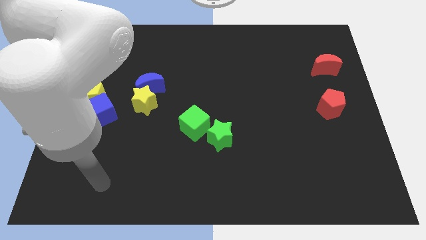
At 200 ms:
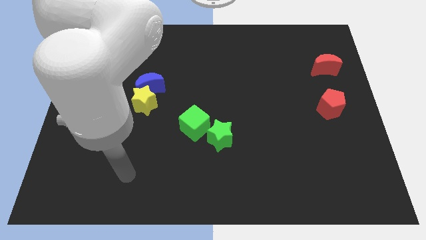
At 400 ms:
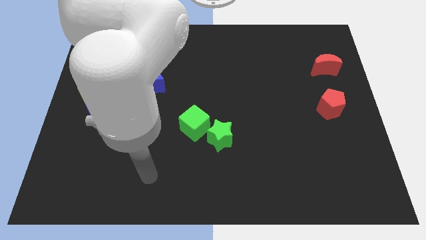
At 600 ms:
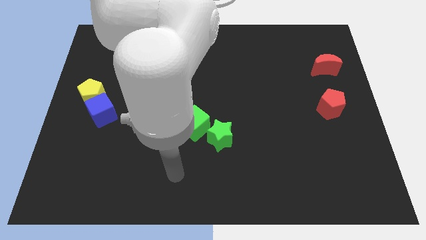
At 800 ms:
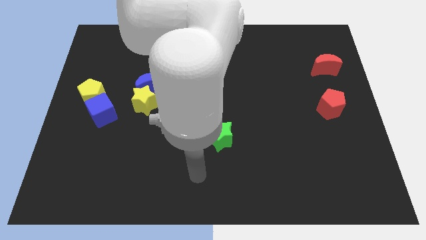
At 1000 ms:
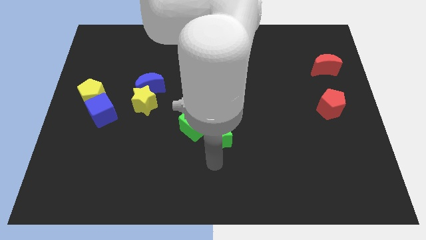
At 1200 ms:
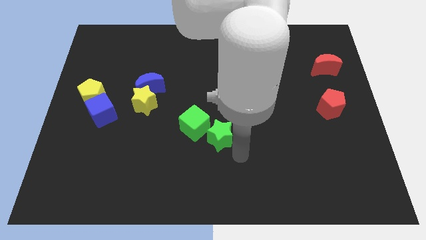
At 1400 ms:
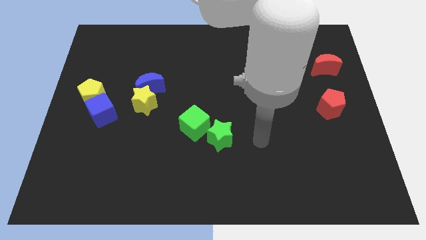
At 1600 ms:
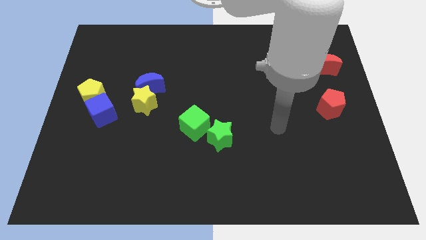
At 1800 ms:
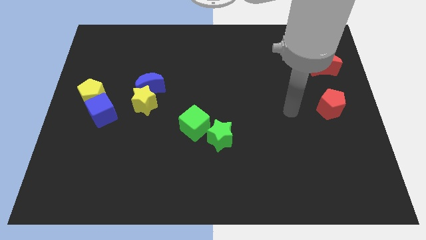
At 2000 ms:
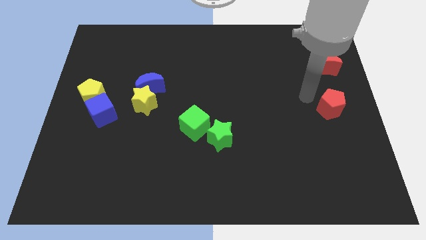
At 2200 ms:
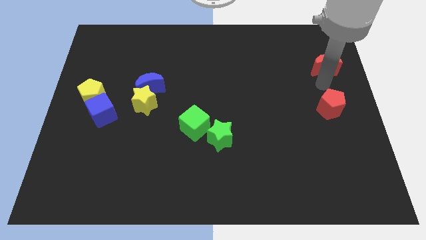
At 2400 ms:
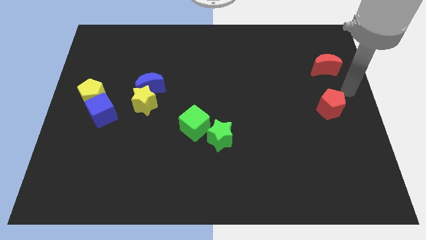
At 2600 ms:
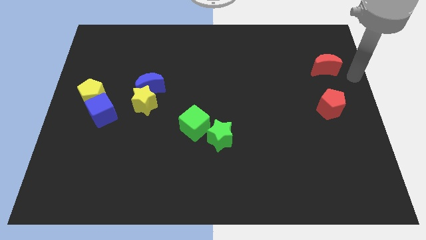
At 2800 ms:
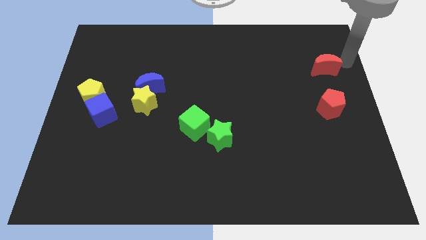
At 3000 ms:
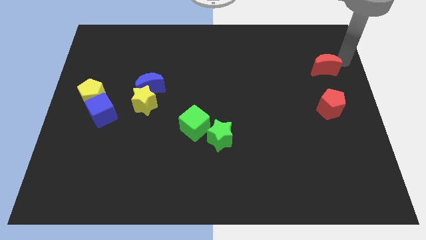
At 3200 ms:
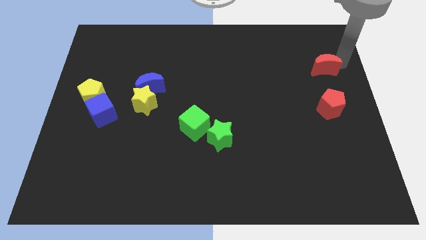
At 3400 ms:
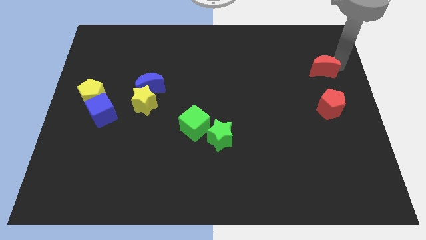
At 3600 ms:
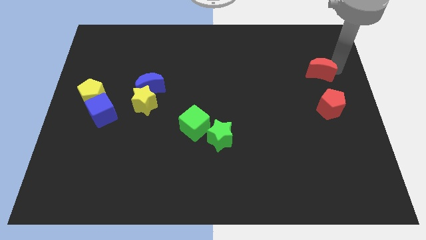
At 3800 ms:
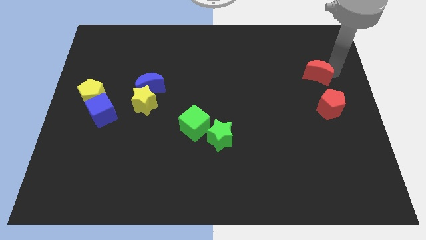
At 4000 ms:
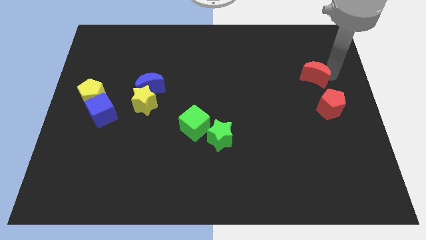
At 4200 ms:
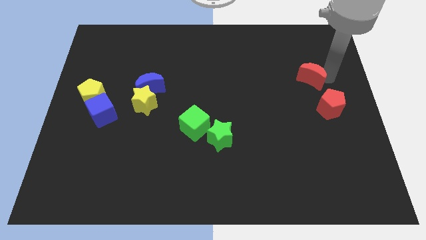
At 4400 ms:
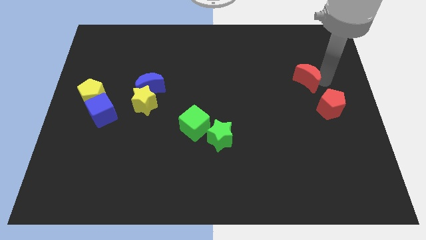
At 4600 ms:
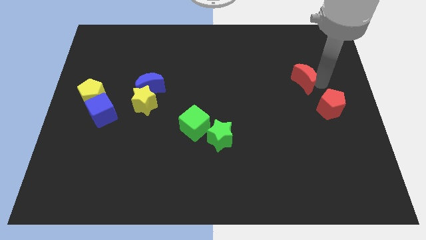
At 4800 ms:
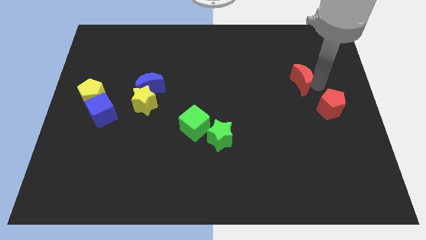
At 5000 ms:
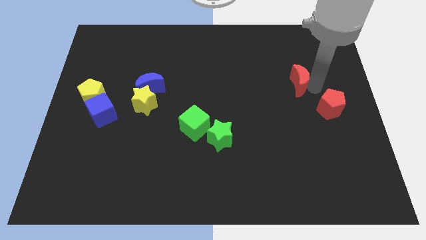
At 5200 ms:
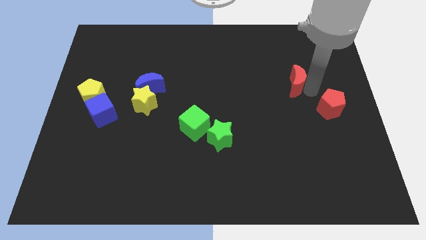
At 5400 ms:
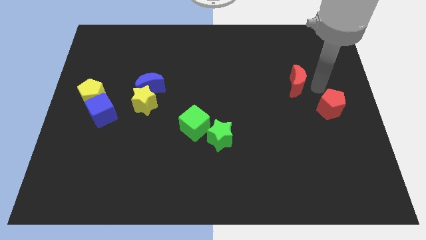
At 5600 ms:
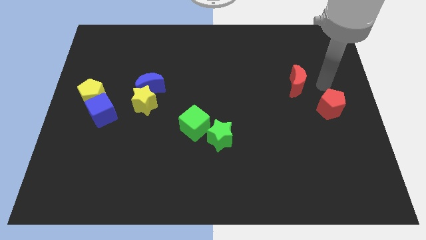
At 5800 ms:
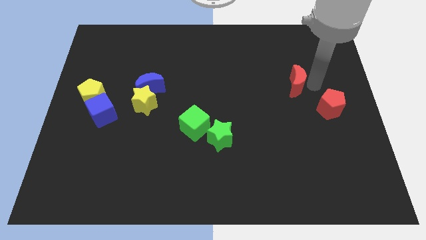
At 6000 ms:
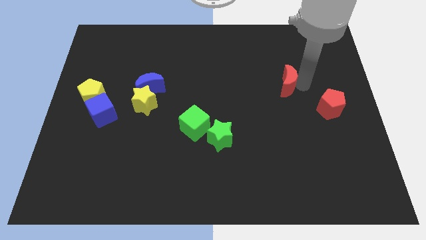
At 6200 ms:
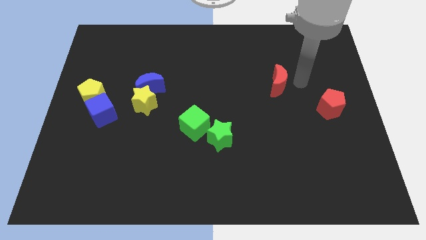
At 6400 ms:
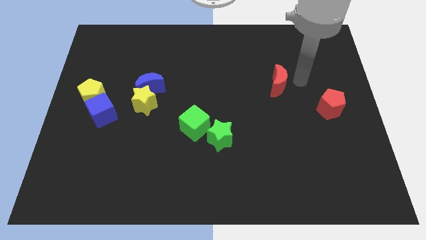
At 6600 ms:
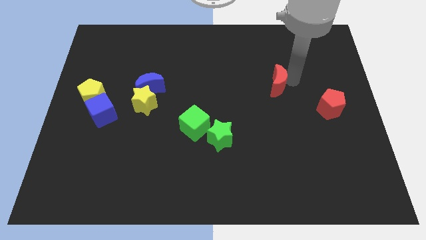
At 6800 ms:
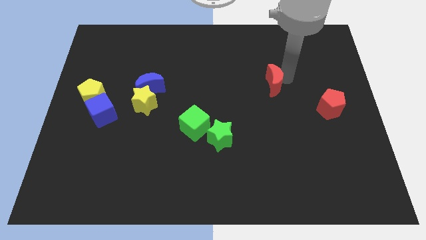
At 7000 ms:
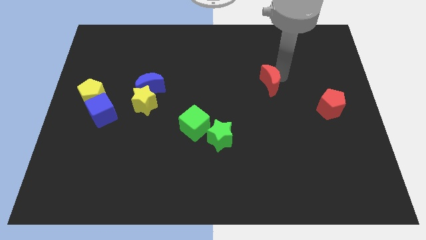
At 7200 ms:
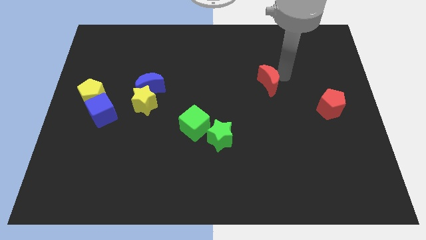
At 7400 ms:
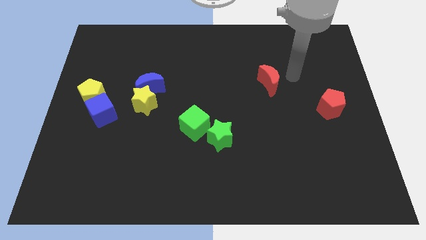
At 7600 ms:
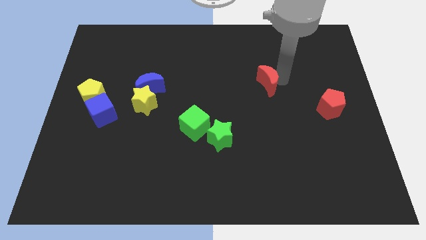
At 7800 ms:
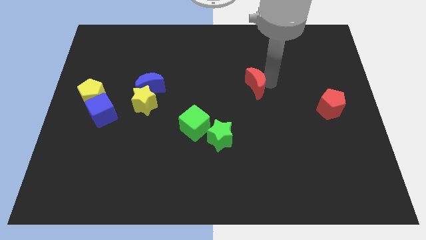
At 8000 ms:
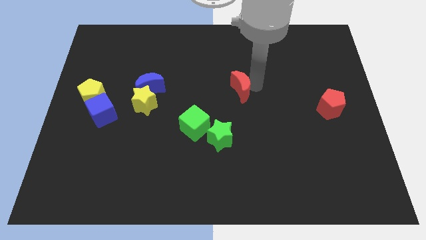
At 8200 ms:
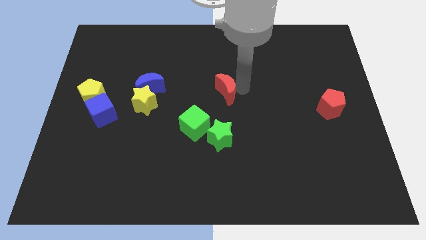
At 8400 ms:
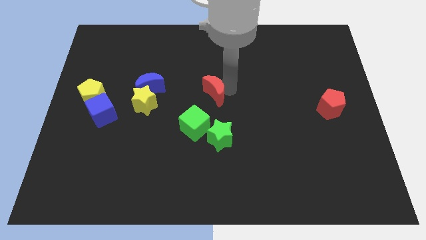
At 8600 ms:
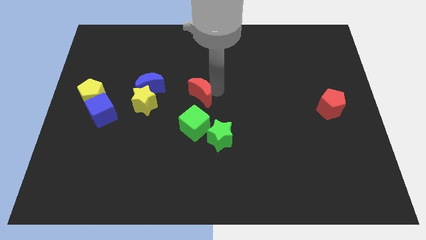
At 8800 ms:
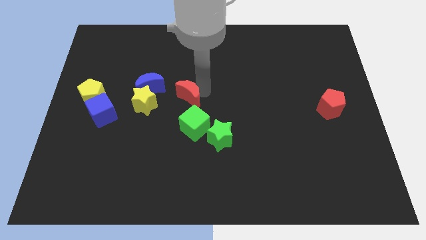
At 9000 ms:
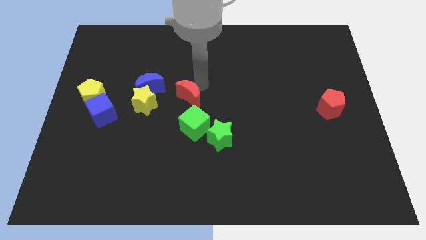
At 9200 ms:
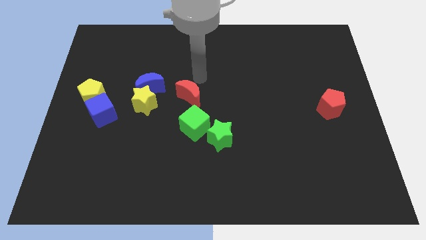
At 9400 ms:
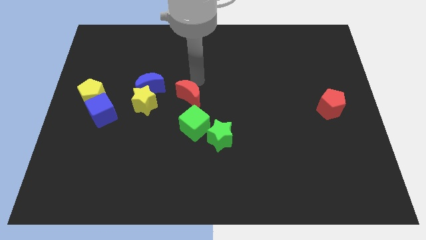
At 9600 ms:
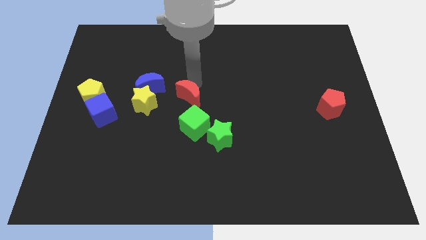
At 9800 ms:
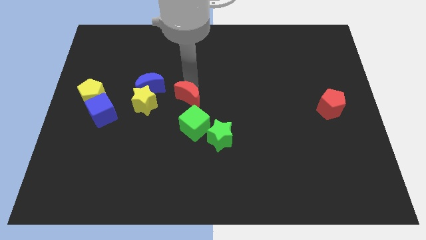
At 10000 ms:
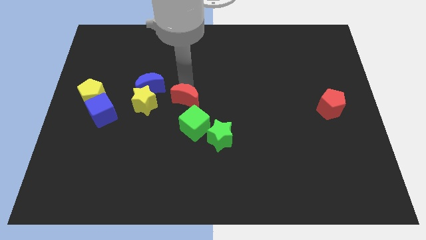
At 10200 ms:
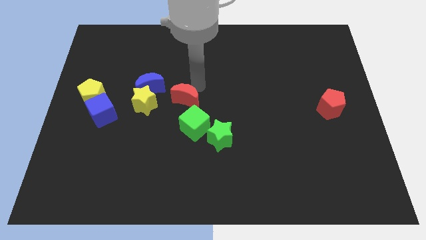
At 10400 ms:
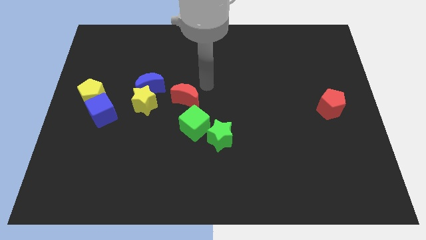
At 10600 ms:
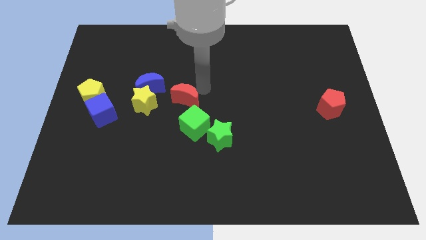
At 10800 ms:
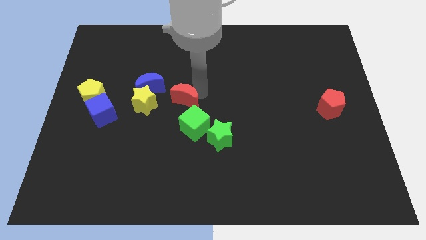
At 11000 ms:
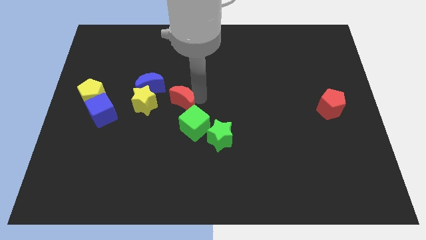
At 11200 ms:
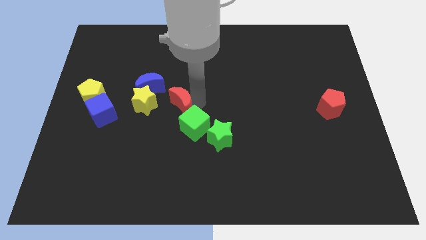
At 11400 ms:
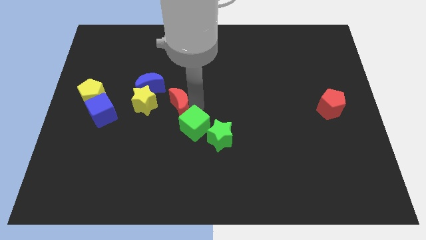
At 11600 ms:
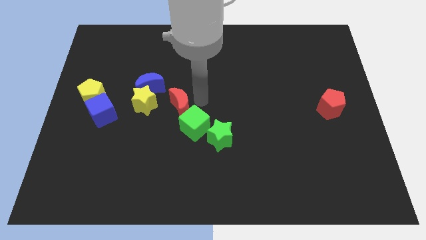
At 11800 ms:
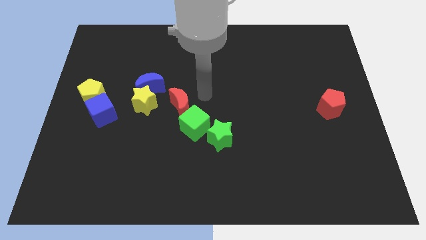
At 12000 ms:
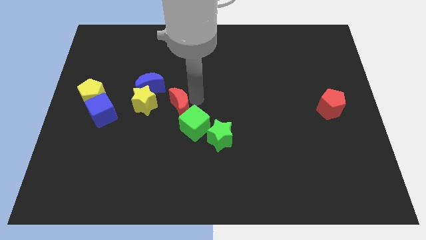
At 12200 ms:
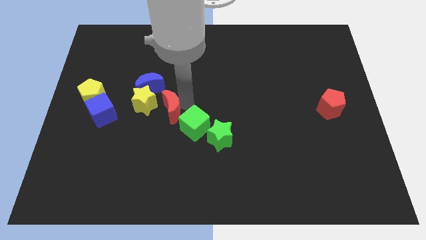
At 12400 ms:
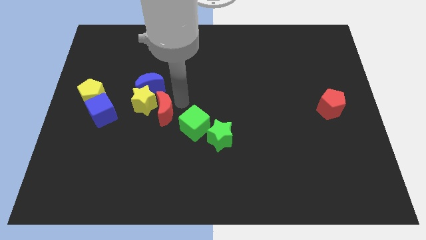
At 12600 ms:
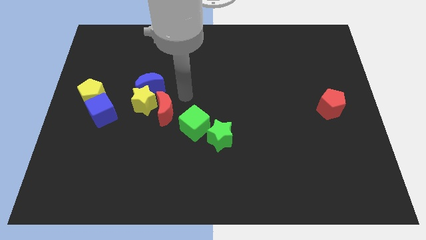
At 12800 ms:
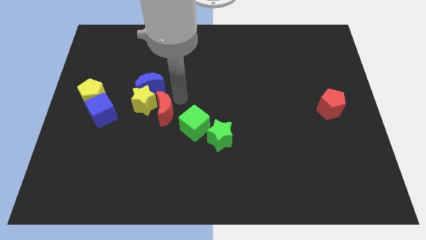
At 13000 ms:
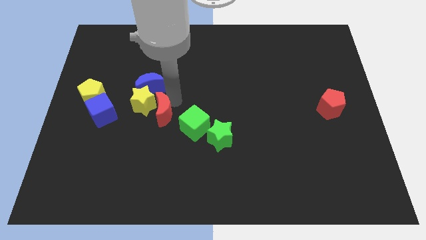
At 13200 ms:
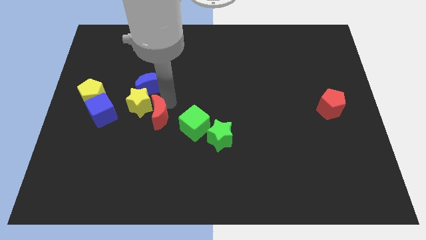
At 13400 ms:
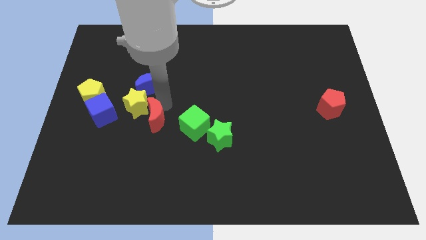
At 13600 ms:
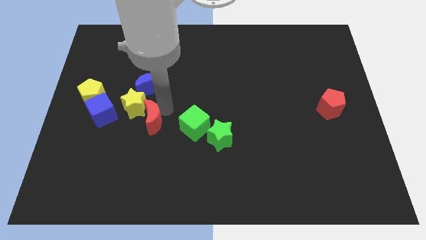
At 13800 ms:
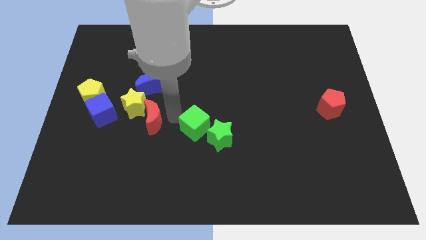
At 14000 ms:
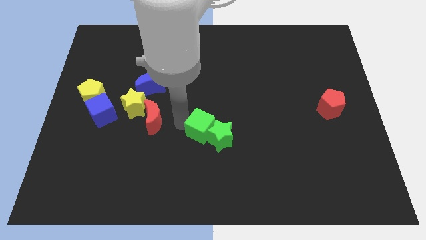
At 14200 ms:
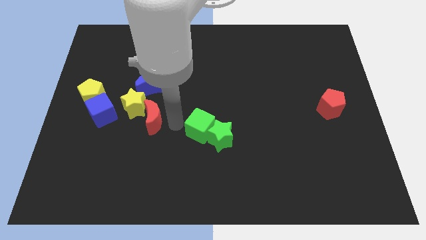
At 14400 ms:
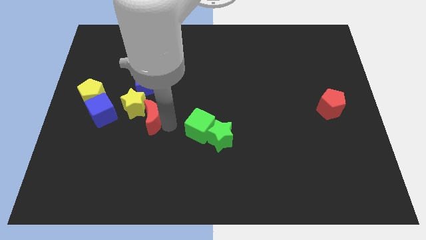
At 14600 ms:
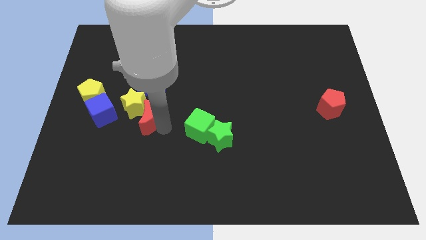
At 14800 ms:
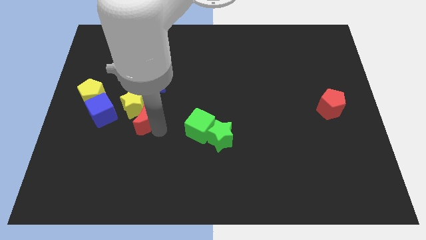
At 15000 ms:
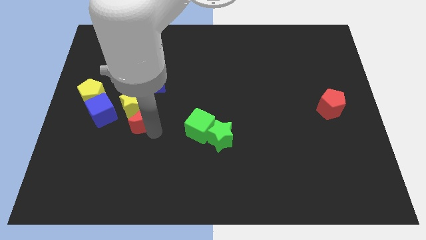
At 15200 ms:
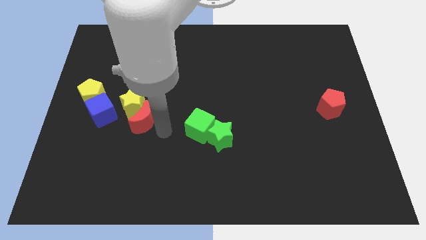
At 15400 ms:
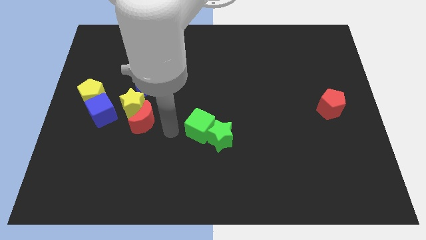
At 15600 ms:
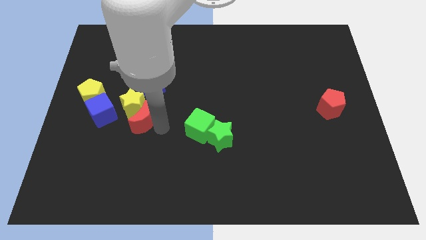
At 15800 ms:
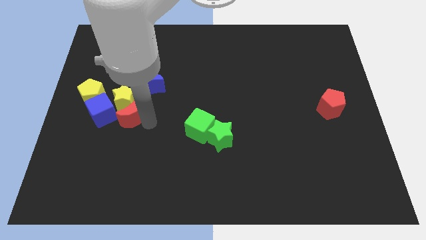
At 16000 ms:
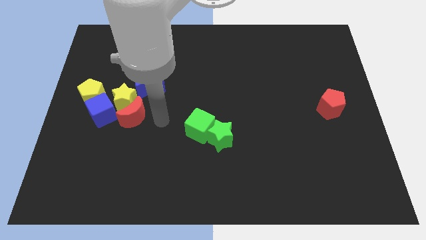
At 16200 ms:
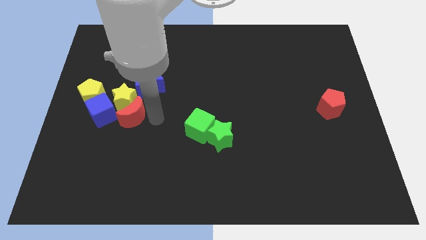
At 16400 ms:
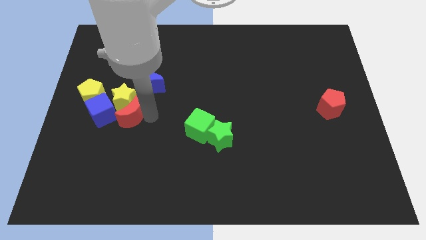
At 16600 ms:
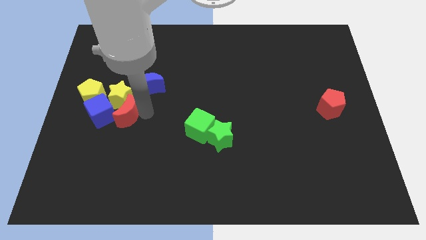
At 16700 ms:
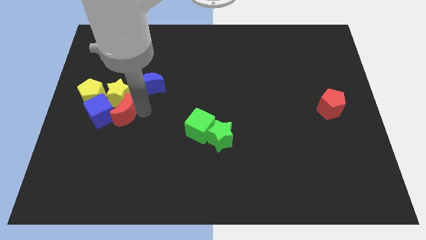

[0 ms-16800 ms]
push the red moon to the blue cube
